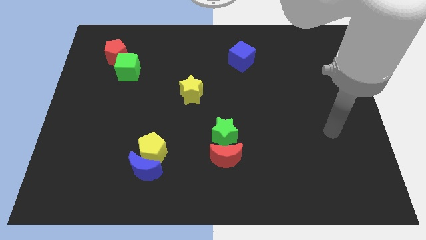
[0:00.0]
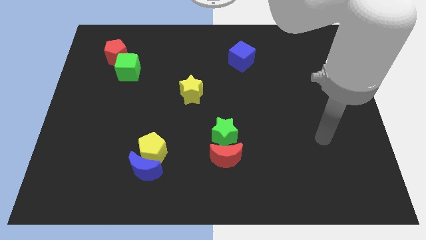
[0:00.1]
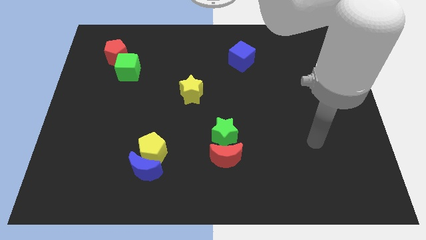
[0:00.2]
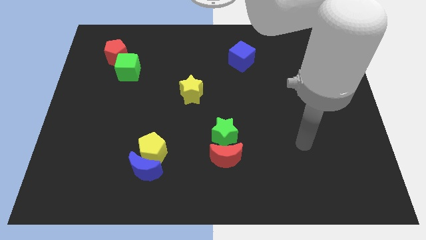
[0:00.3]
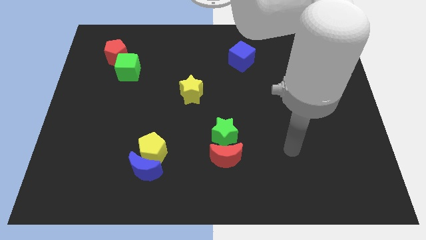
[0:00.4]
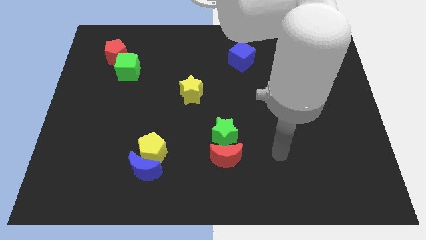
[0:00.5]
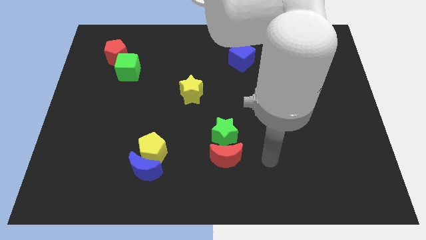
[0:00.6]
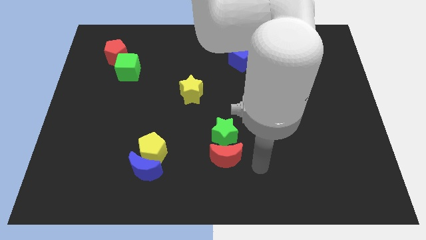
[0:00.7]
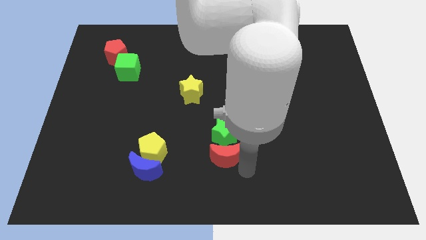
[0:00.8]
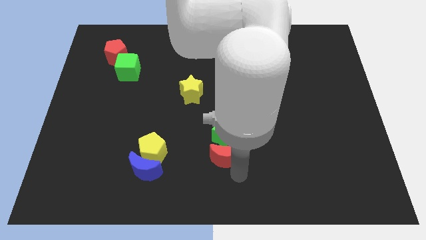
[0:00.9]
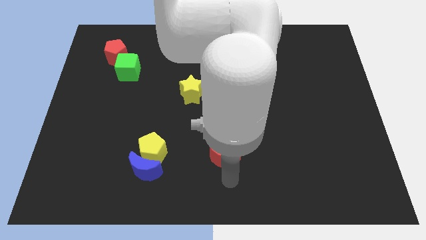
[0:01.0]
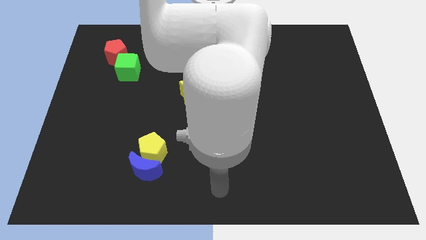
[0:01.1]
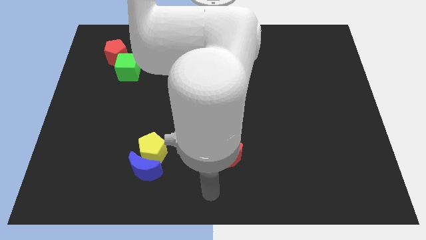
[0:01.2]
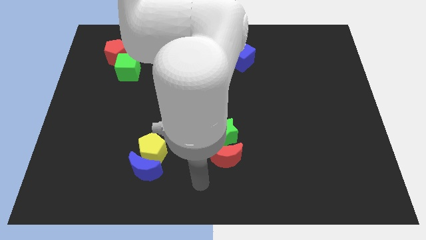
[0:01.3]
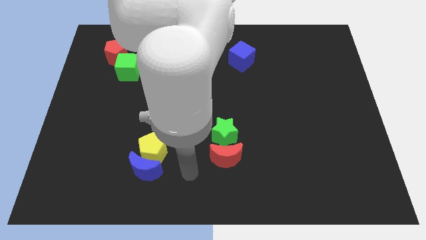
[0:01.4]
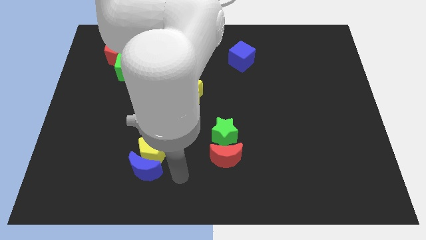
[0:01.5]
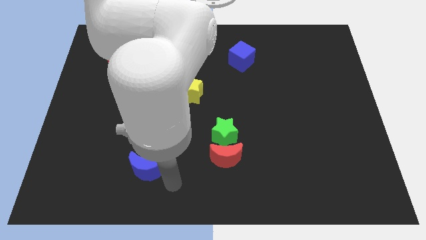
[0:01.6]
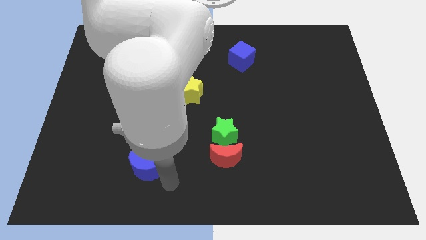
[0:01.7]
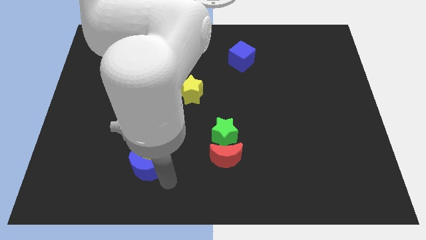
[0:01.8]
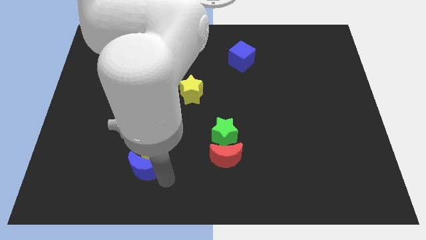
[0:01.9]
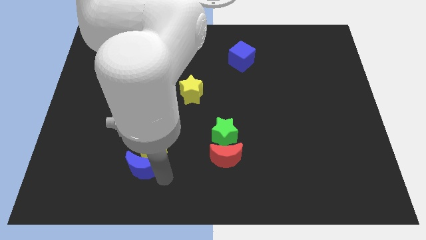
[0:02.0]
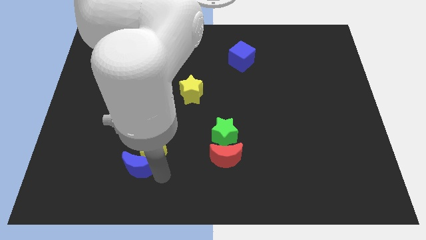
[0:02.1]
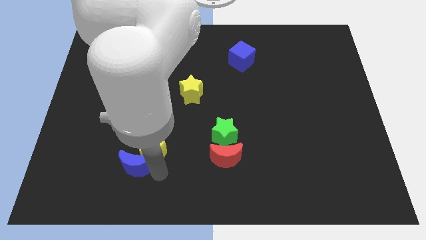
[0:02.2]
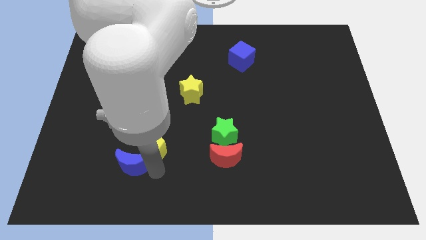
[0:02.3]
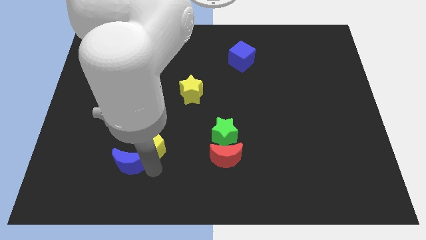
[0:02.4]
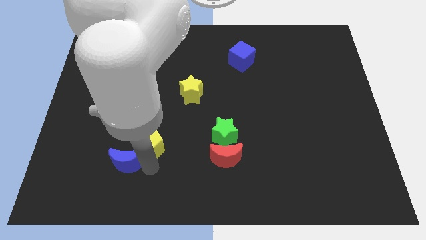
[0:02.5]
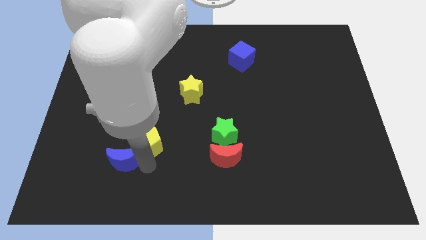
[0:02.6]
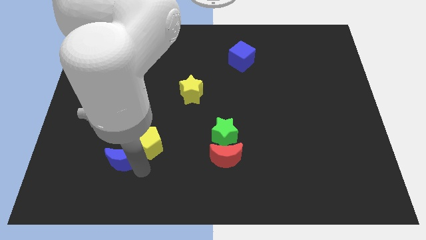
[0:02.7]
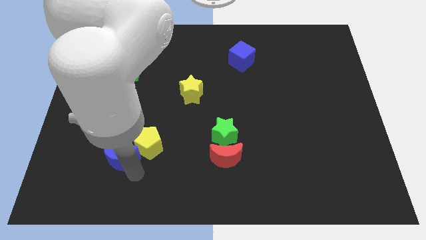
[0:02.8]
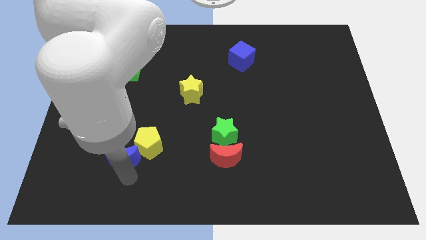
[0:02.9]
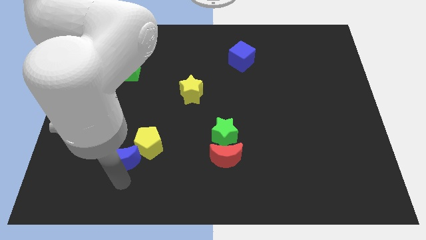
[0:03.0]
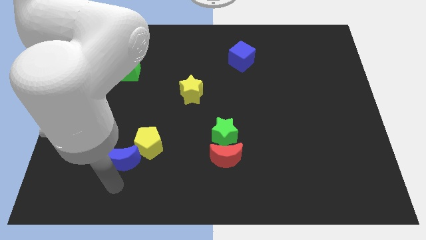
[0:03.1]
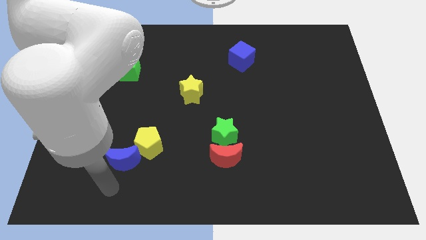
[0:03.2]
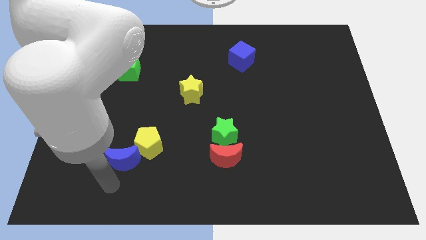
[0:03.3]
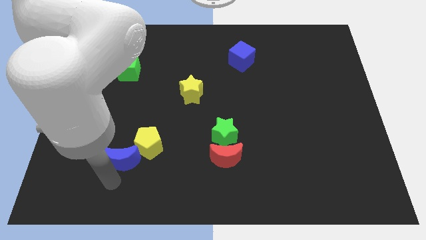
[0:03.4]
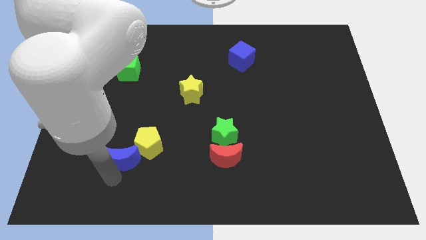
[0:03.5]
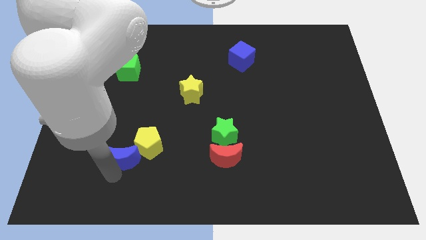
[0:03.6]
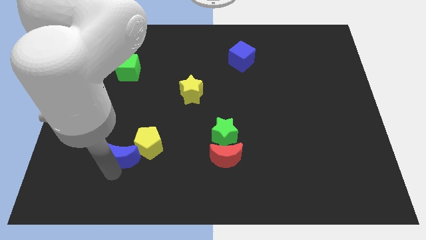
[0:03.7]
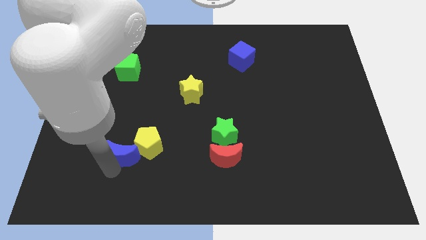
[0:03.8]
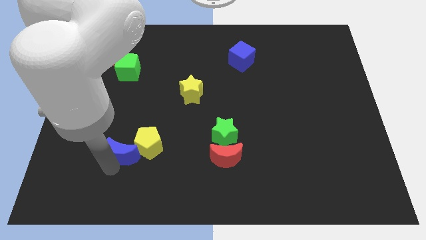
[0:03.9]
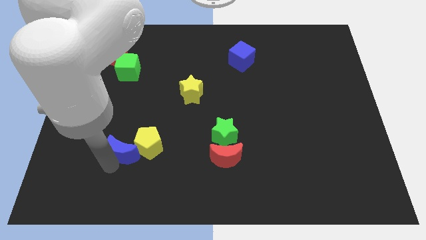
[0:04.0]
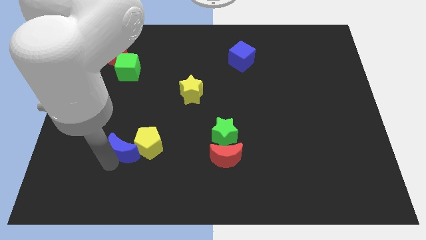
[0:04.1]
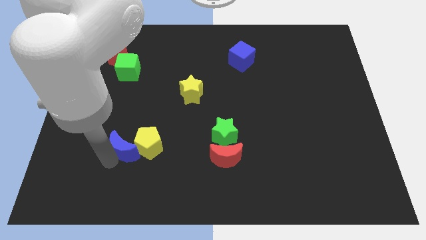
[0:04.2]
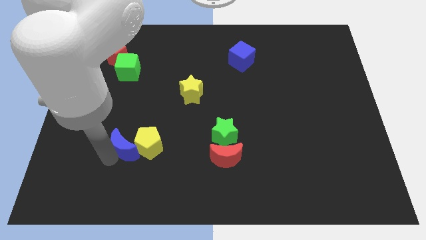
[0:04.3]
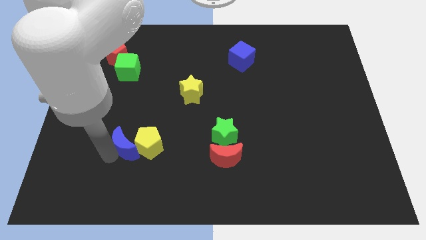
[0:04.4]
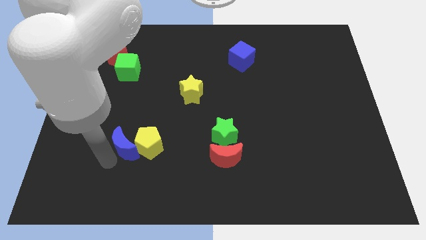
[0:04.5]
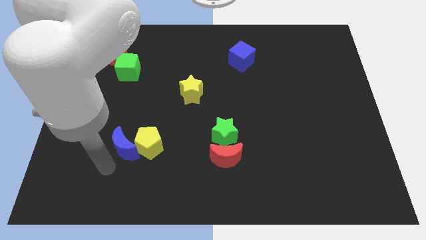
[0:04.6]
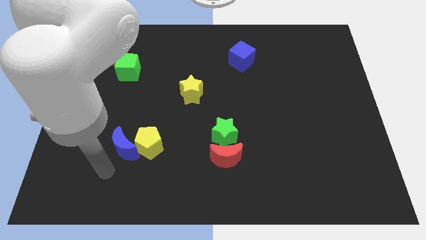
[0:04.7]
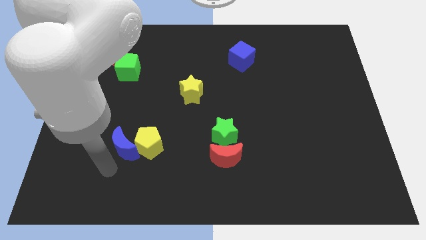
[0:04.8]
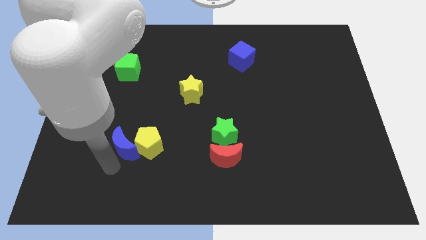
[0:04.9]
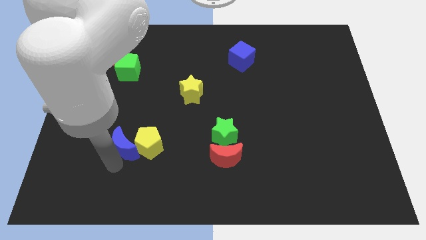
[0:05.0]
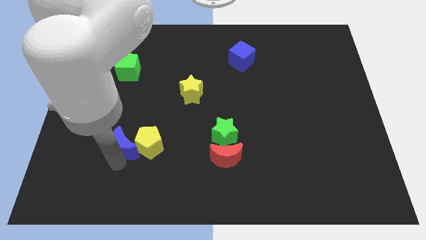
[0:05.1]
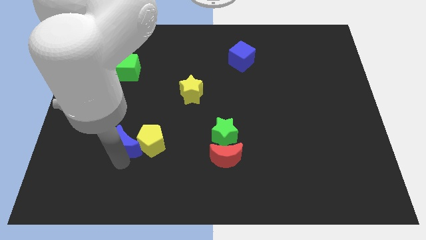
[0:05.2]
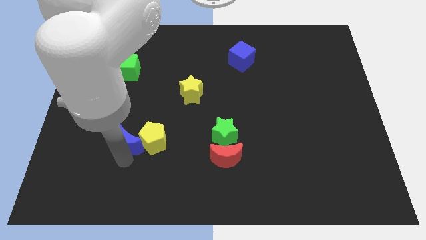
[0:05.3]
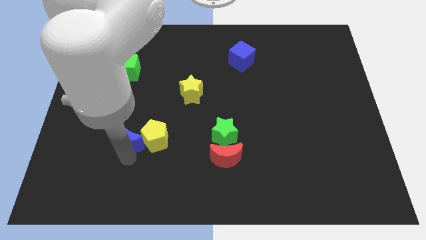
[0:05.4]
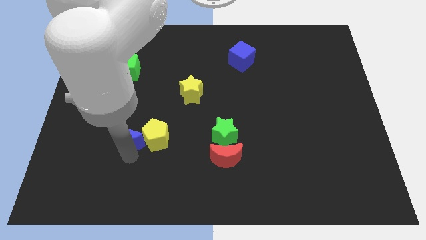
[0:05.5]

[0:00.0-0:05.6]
move the blue moon upwards a little

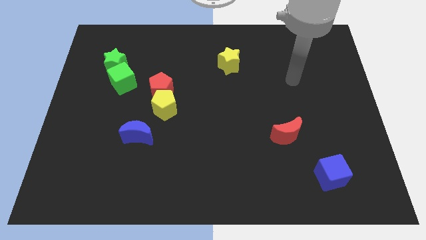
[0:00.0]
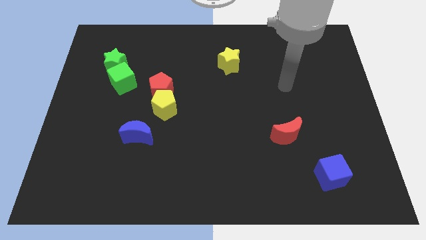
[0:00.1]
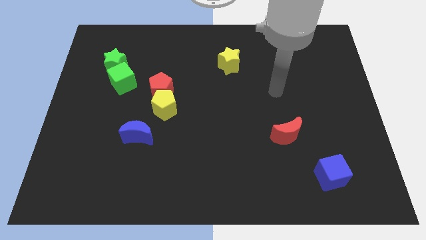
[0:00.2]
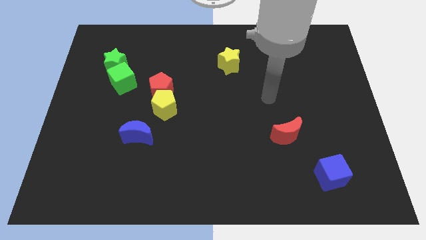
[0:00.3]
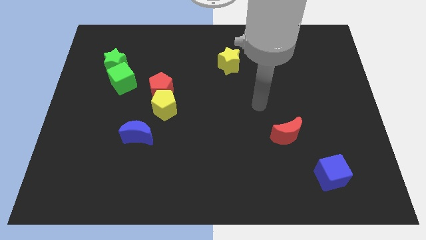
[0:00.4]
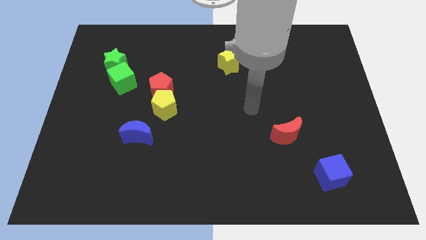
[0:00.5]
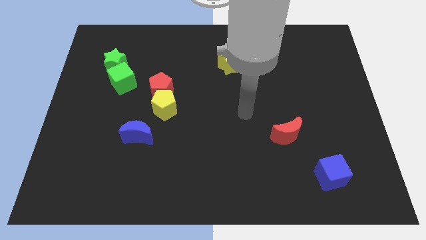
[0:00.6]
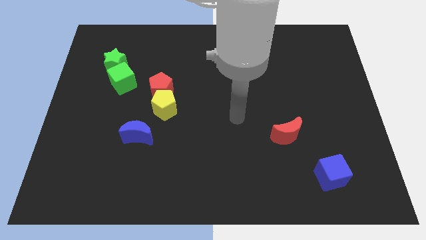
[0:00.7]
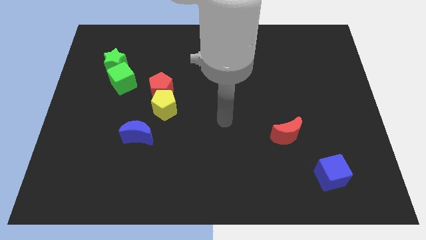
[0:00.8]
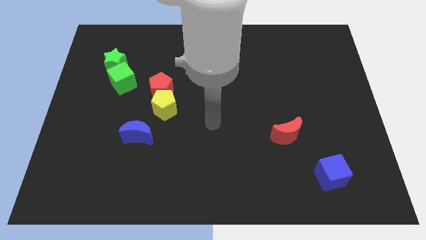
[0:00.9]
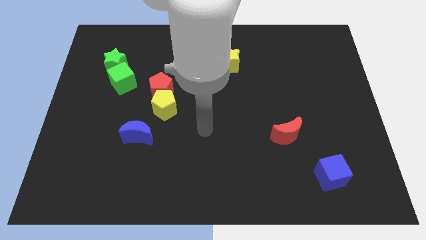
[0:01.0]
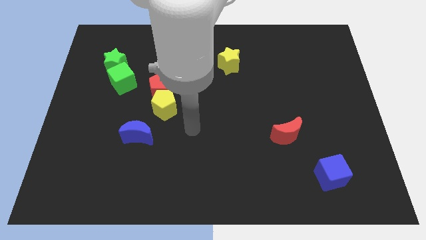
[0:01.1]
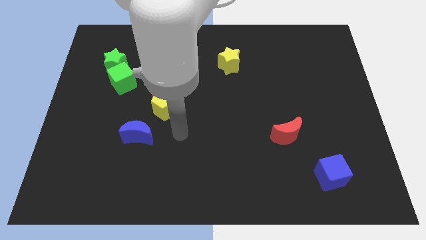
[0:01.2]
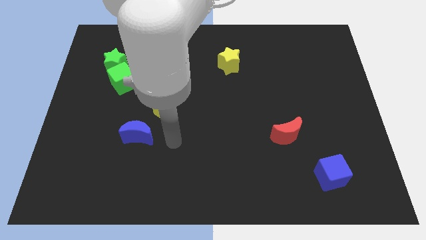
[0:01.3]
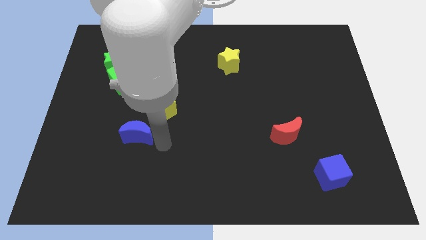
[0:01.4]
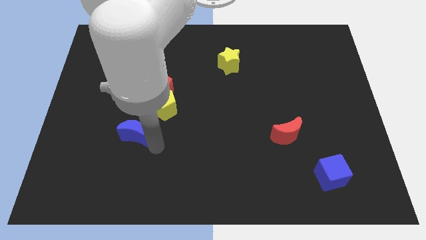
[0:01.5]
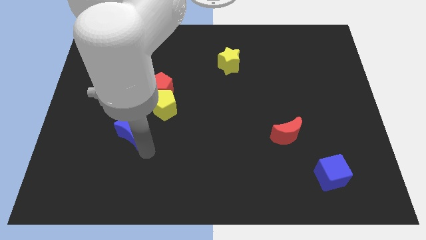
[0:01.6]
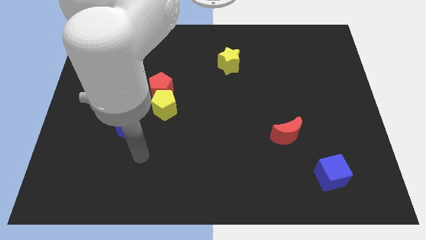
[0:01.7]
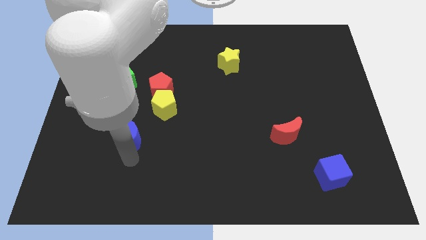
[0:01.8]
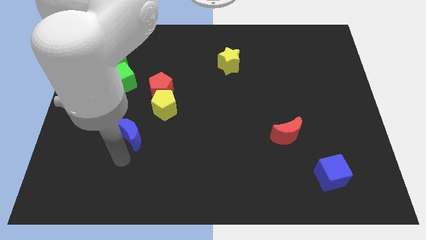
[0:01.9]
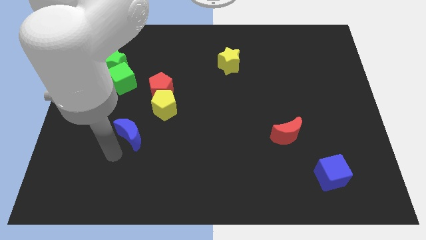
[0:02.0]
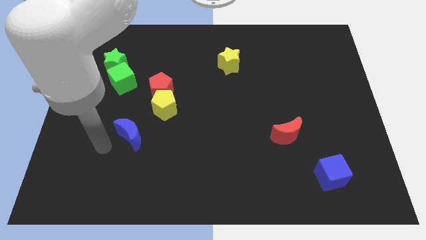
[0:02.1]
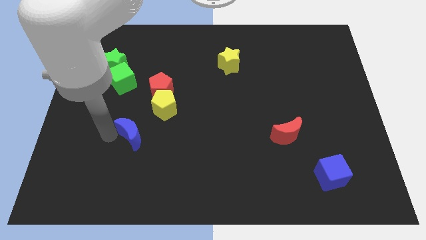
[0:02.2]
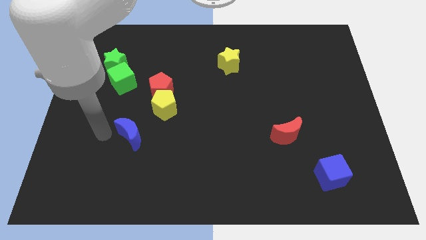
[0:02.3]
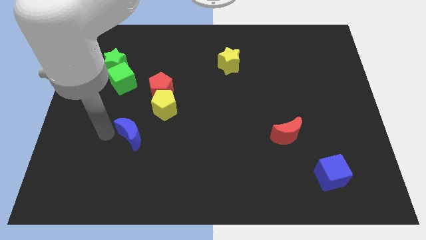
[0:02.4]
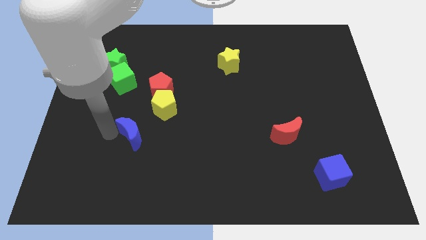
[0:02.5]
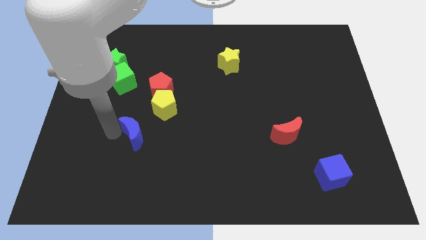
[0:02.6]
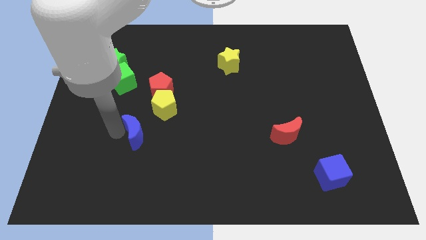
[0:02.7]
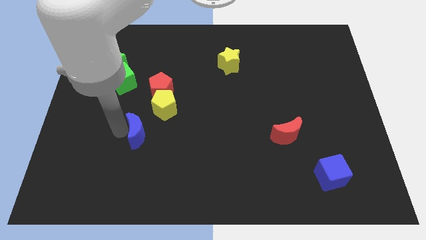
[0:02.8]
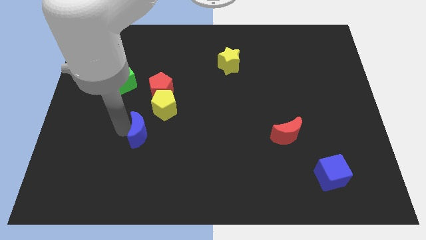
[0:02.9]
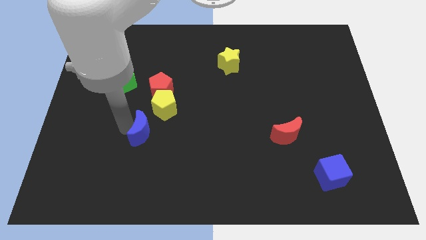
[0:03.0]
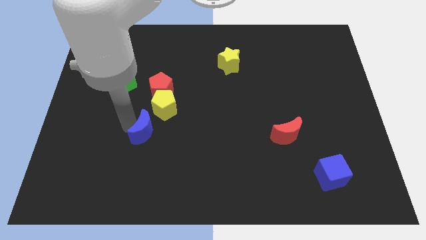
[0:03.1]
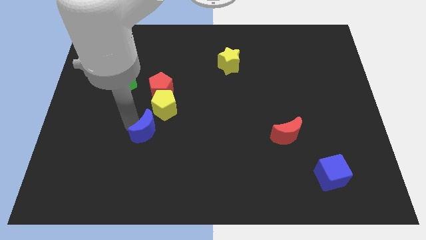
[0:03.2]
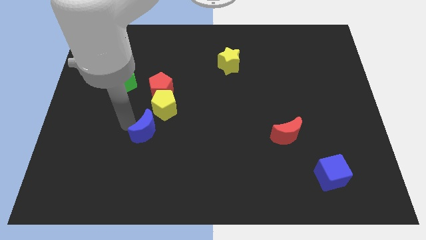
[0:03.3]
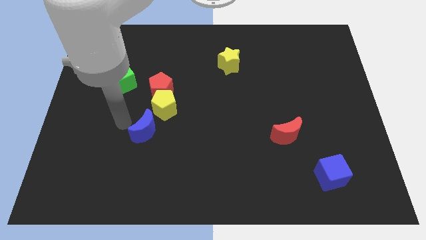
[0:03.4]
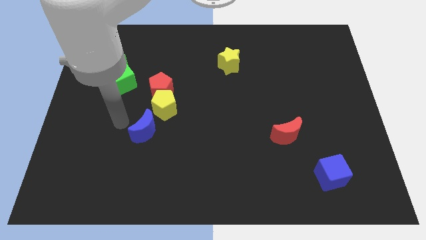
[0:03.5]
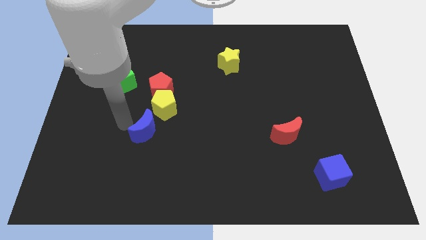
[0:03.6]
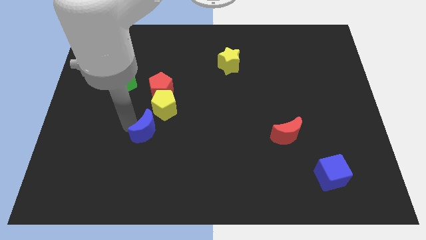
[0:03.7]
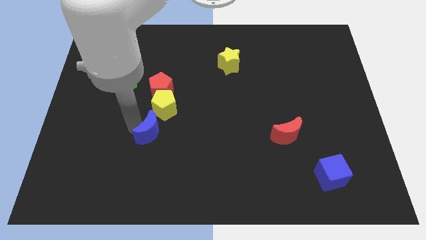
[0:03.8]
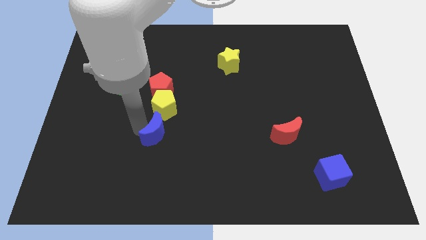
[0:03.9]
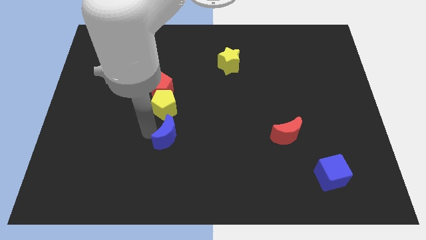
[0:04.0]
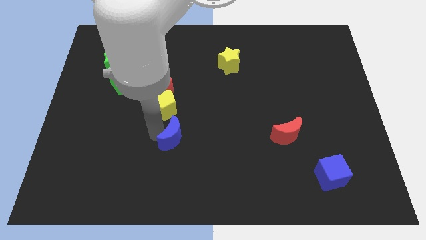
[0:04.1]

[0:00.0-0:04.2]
push the blue moon slightly to the right
